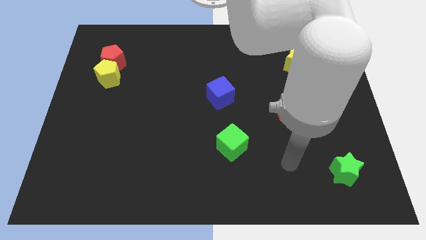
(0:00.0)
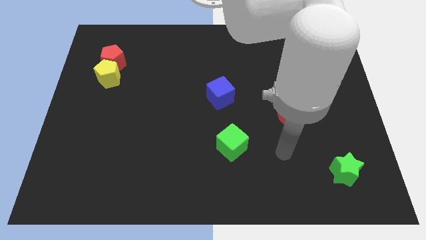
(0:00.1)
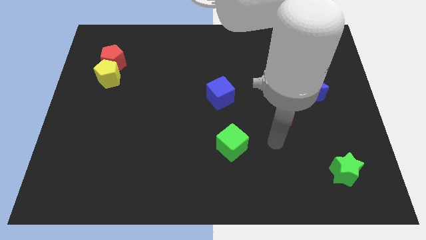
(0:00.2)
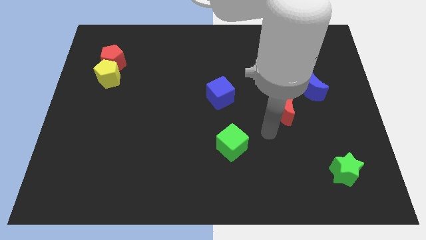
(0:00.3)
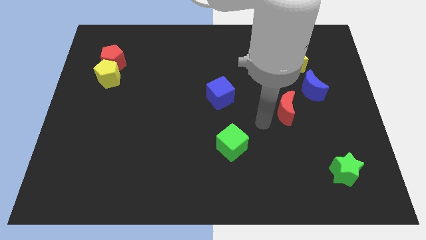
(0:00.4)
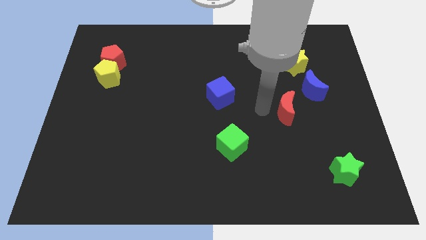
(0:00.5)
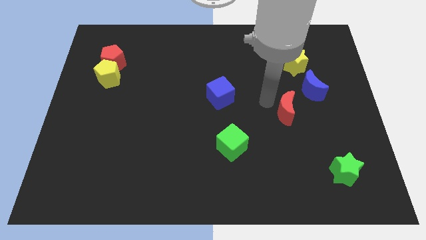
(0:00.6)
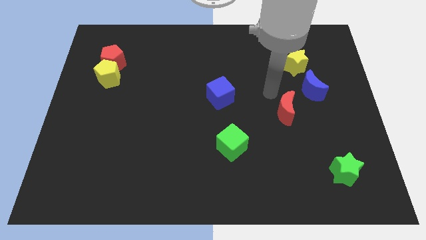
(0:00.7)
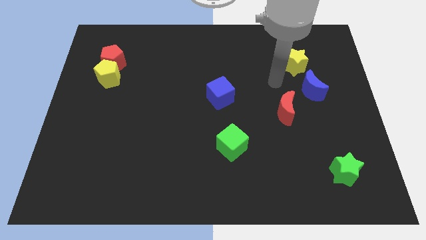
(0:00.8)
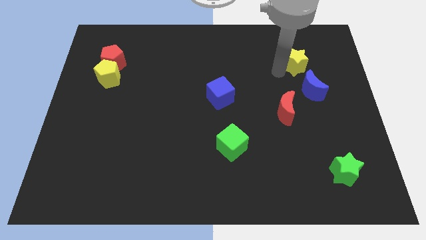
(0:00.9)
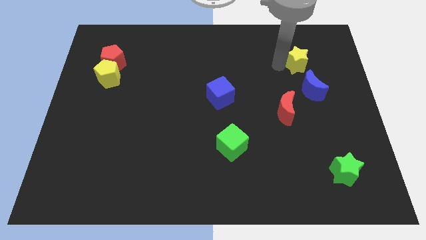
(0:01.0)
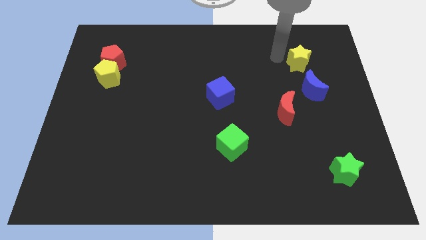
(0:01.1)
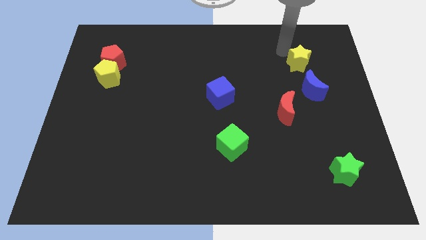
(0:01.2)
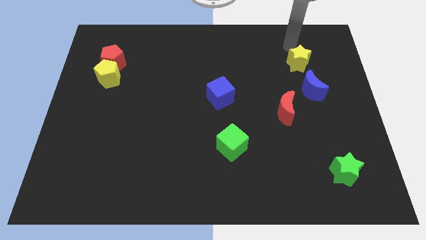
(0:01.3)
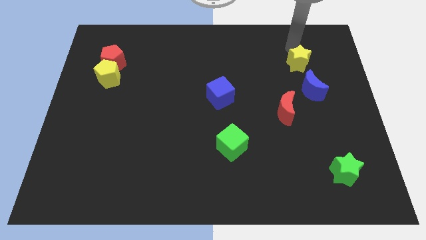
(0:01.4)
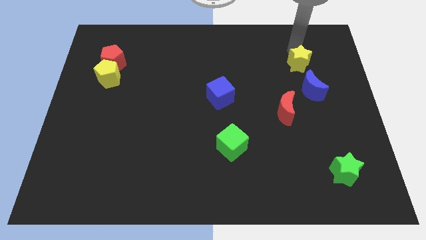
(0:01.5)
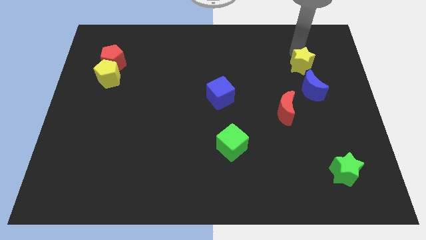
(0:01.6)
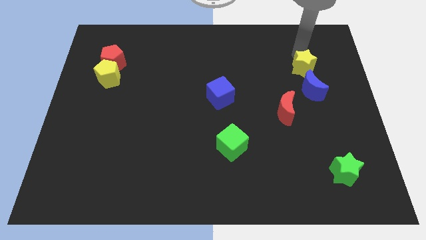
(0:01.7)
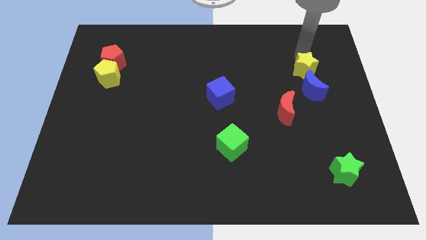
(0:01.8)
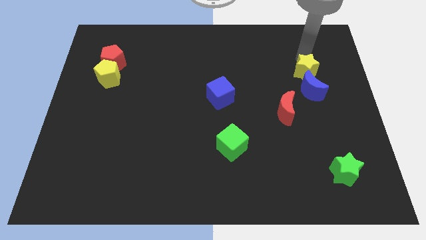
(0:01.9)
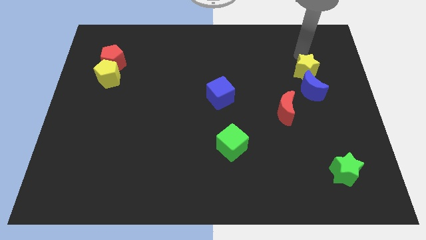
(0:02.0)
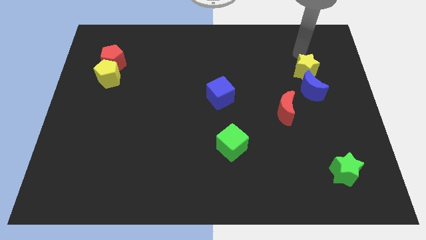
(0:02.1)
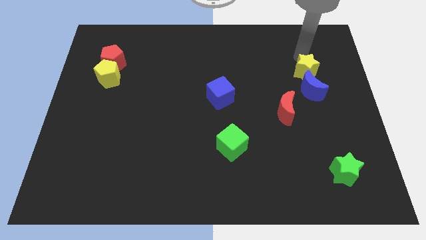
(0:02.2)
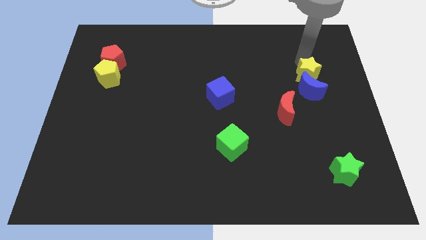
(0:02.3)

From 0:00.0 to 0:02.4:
put the yellow star close to the blue moon

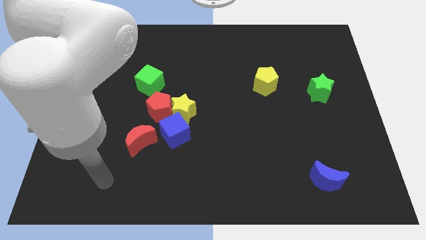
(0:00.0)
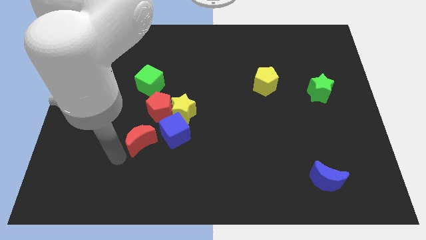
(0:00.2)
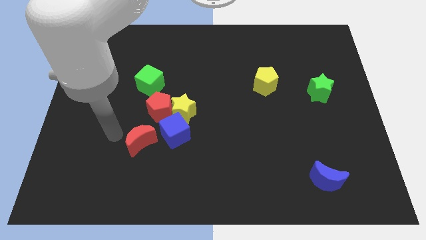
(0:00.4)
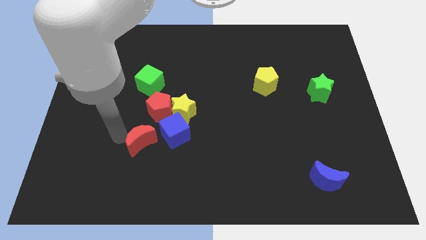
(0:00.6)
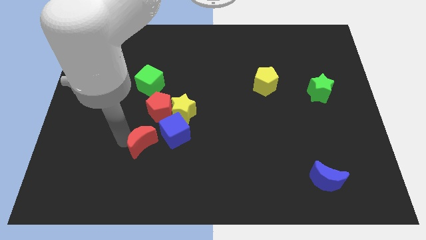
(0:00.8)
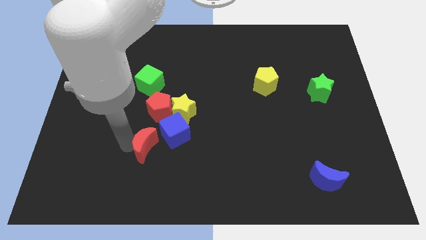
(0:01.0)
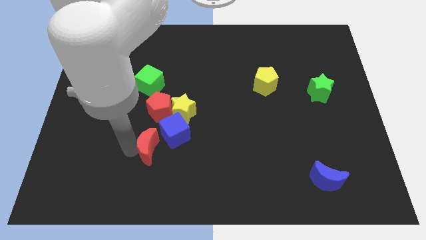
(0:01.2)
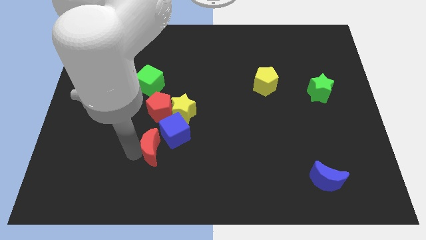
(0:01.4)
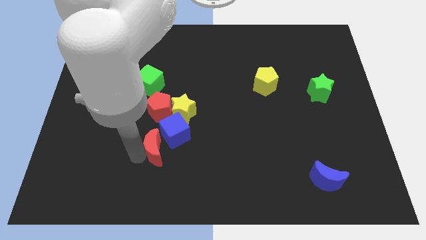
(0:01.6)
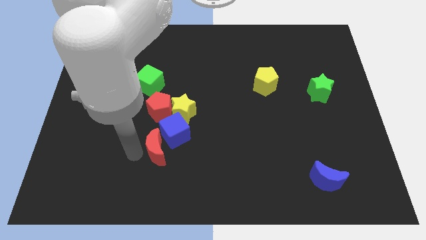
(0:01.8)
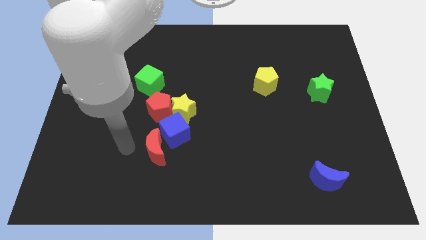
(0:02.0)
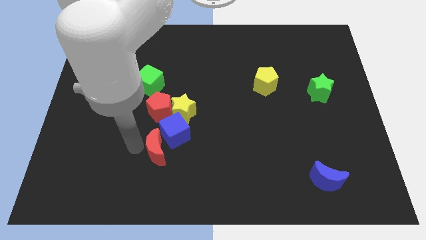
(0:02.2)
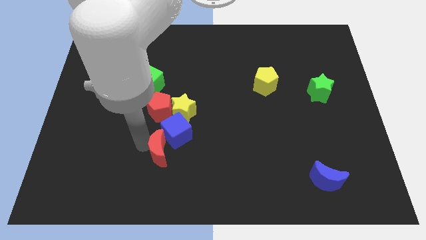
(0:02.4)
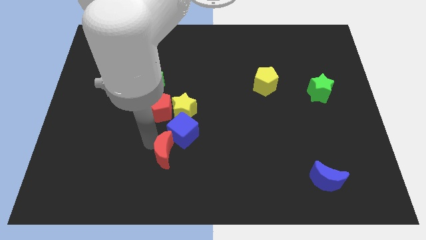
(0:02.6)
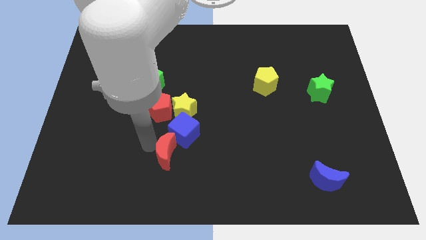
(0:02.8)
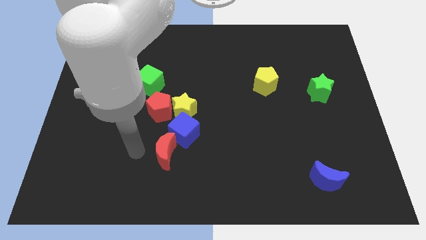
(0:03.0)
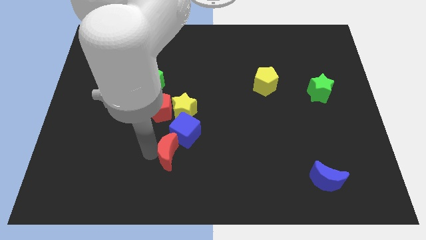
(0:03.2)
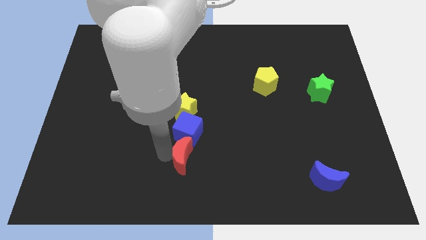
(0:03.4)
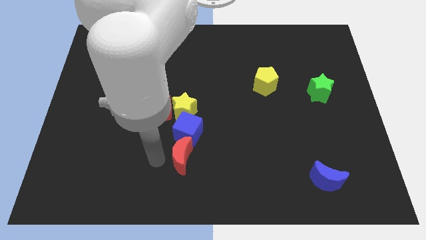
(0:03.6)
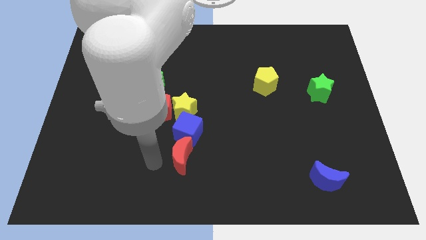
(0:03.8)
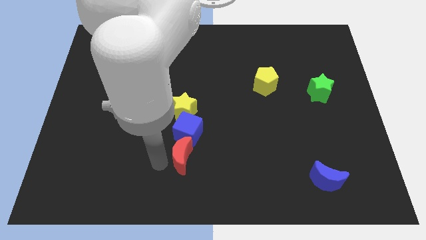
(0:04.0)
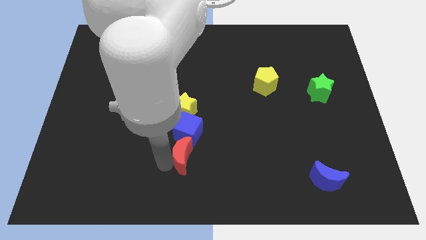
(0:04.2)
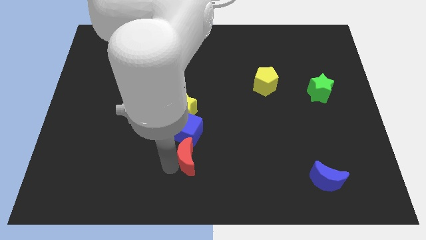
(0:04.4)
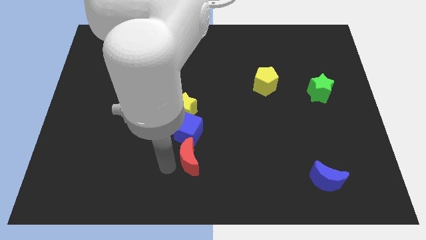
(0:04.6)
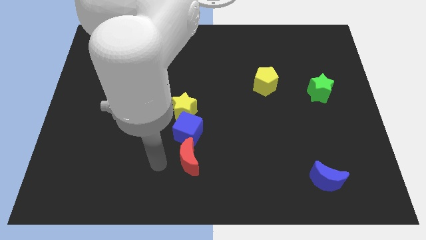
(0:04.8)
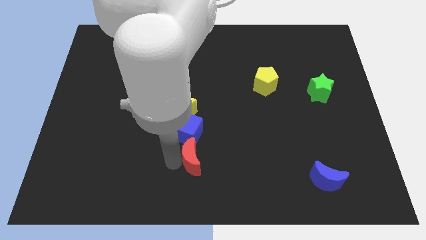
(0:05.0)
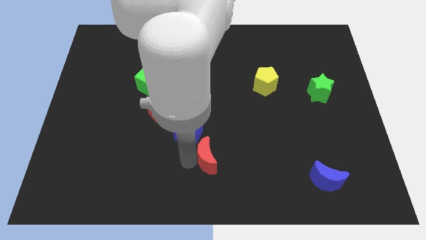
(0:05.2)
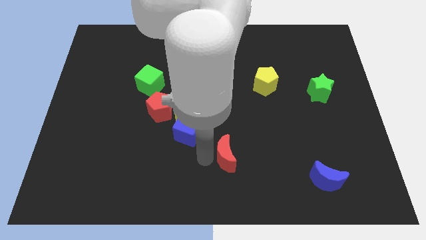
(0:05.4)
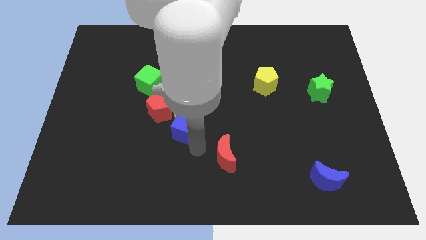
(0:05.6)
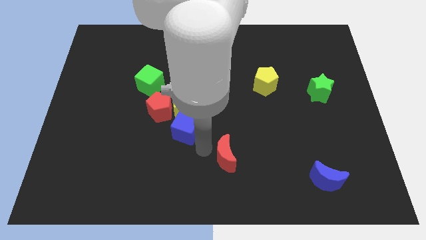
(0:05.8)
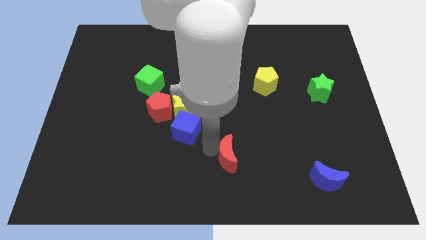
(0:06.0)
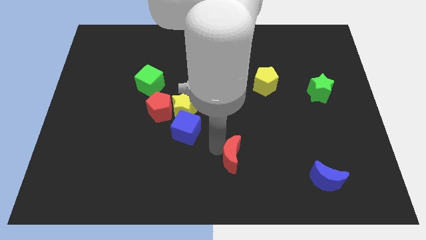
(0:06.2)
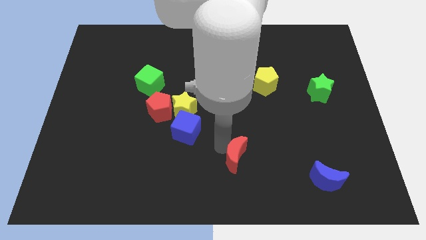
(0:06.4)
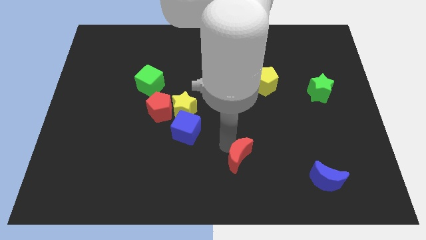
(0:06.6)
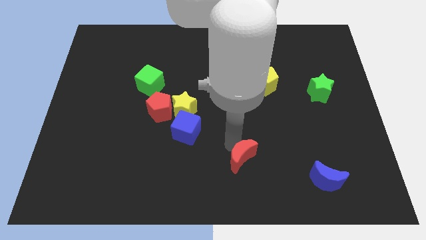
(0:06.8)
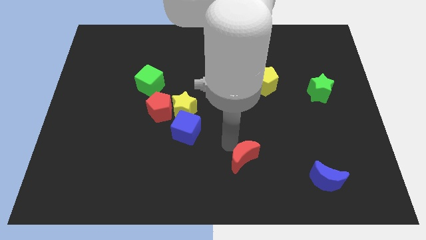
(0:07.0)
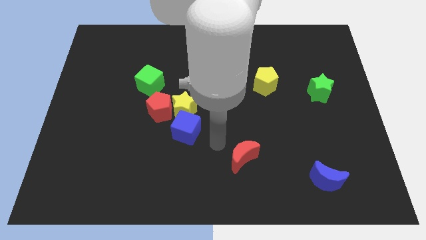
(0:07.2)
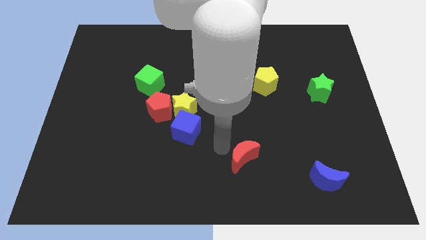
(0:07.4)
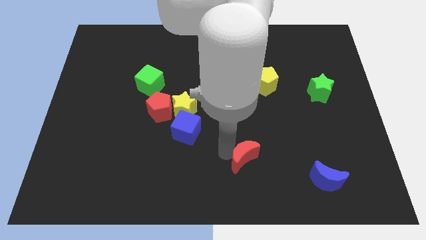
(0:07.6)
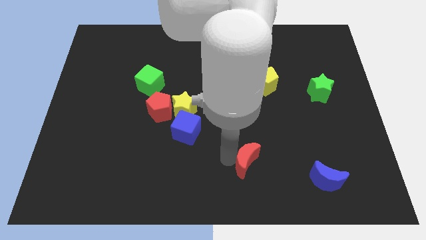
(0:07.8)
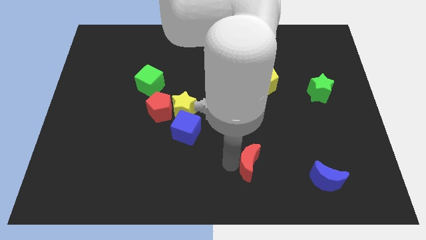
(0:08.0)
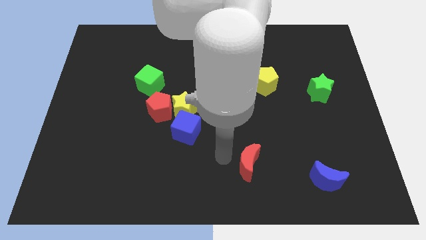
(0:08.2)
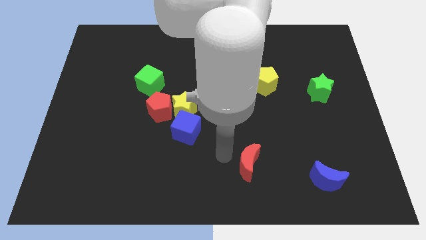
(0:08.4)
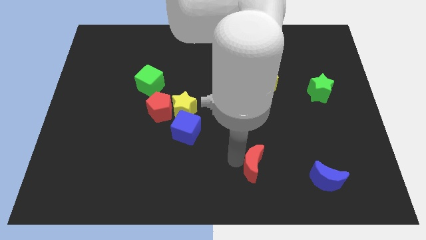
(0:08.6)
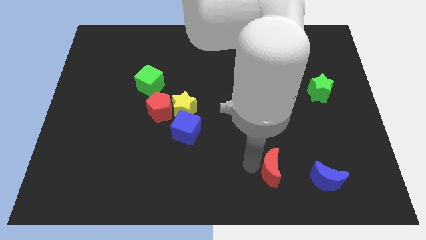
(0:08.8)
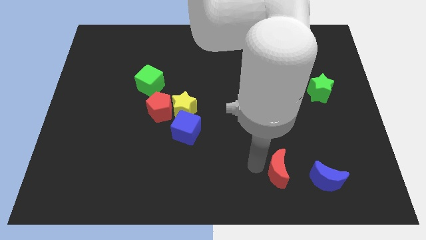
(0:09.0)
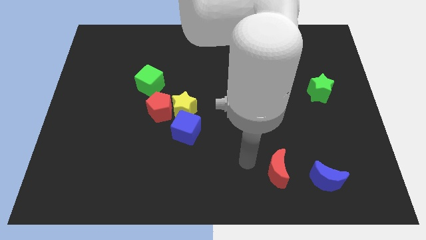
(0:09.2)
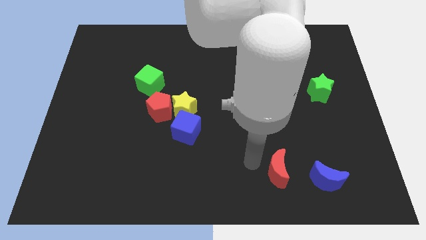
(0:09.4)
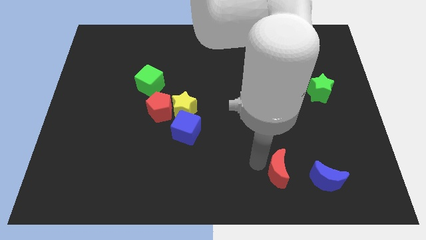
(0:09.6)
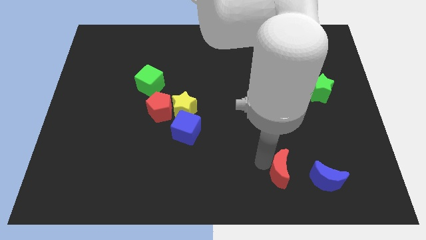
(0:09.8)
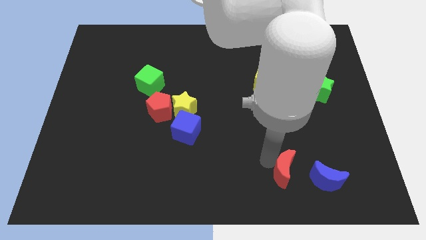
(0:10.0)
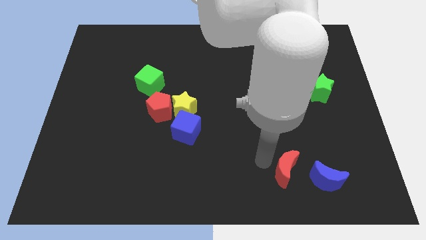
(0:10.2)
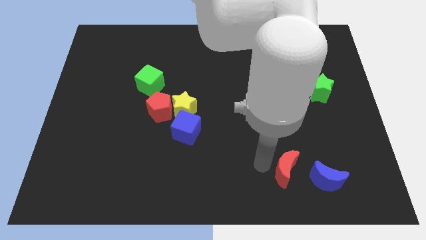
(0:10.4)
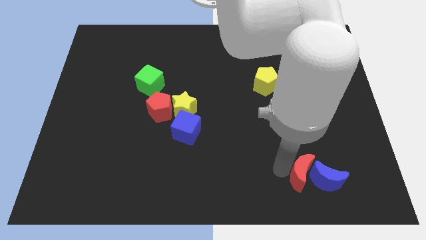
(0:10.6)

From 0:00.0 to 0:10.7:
put the red moon to the blue moon

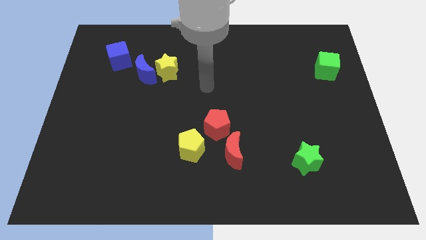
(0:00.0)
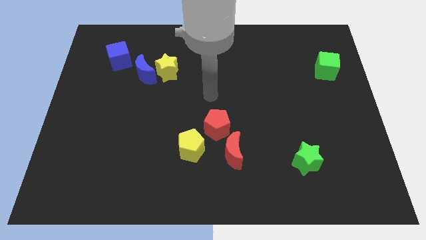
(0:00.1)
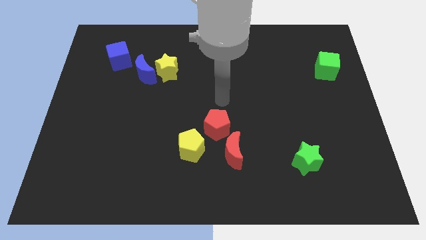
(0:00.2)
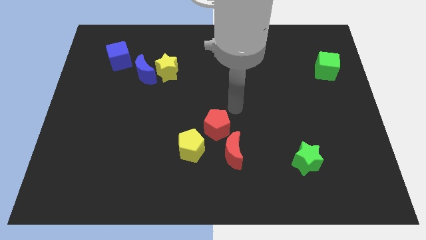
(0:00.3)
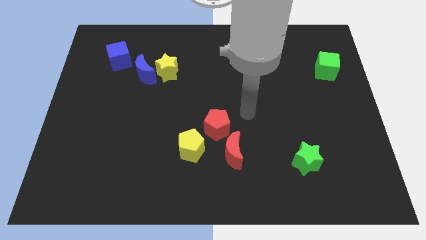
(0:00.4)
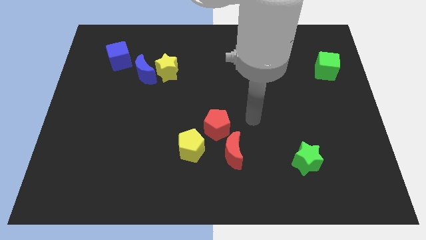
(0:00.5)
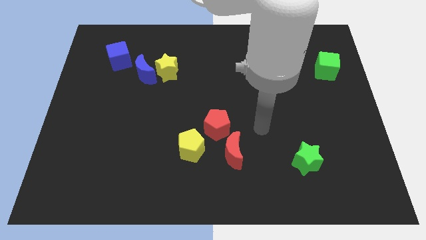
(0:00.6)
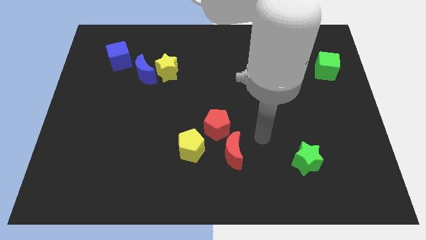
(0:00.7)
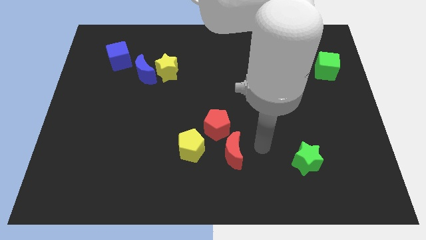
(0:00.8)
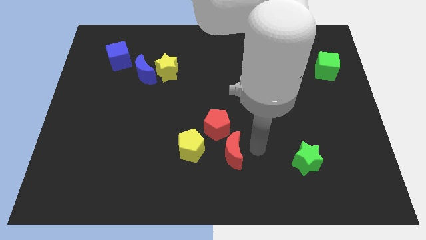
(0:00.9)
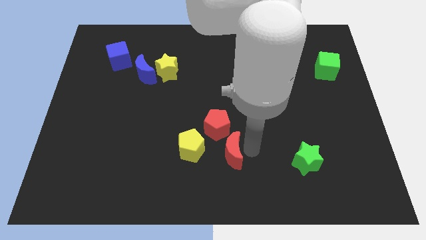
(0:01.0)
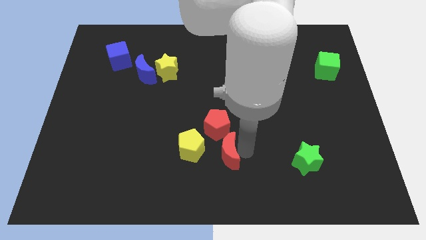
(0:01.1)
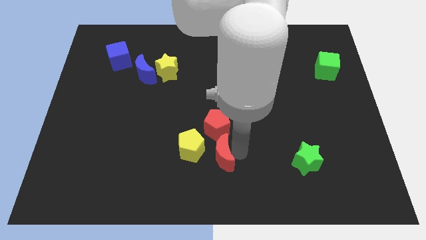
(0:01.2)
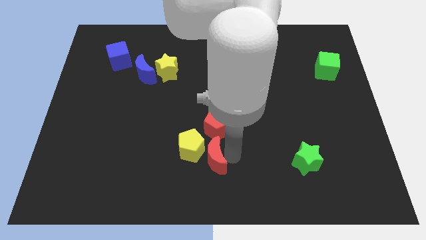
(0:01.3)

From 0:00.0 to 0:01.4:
push the red moon next to the yellow pentagon
